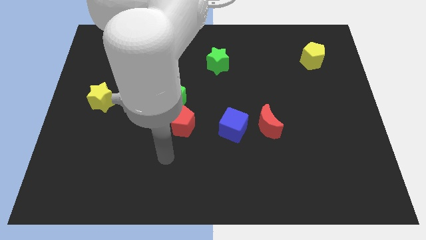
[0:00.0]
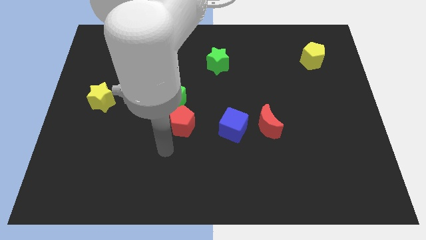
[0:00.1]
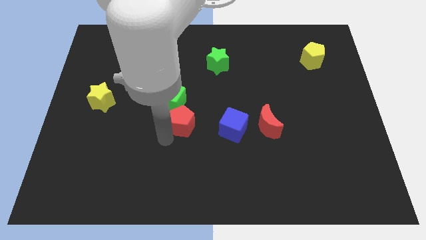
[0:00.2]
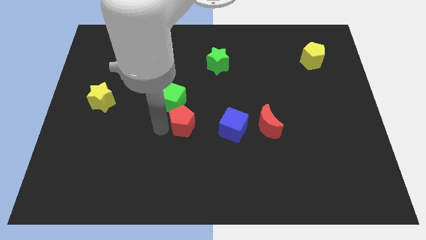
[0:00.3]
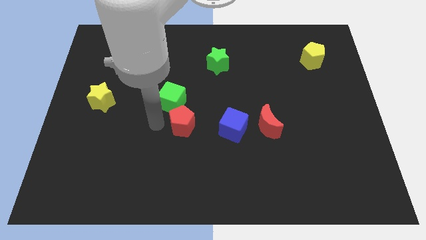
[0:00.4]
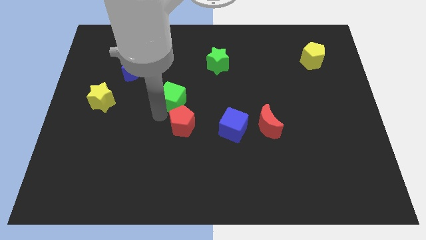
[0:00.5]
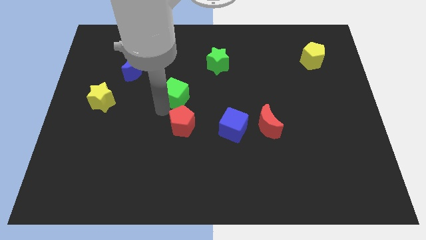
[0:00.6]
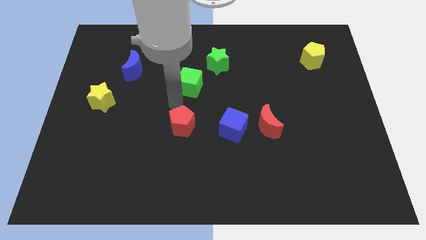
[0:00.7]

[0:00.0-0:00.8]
move the red pentagon away from the green cube

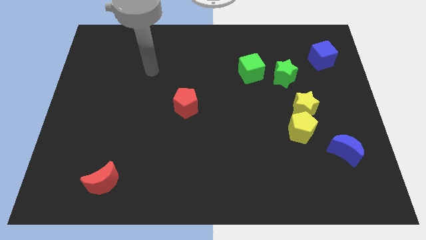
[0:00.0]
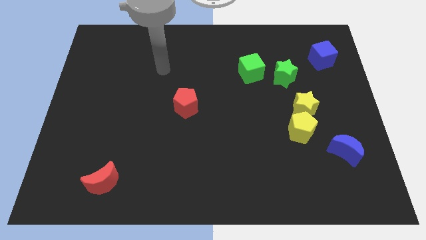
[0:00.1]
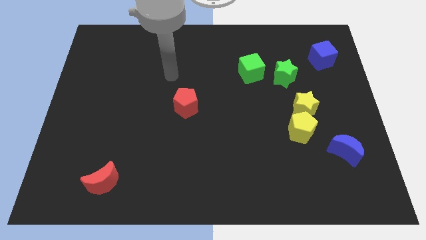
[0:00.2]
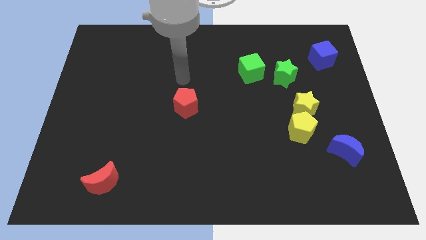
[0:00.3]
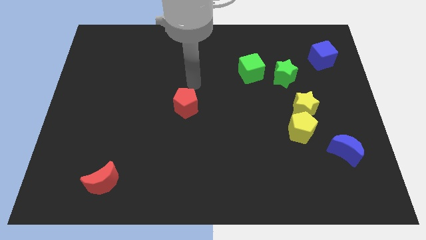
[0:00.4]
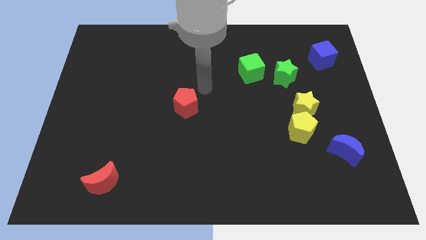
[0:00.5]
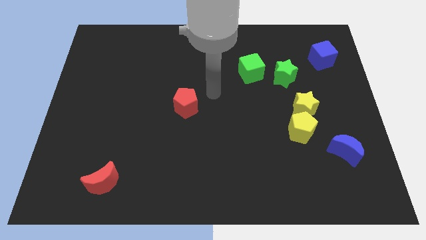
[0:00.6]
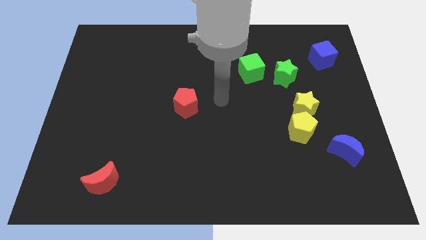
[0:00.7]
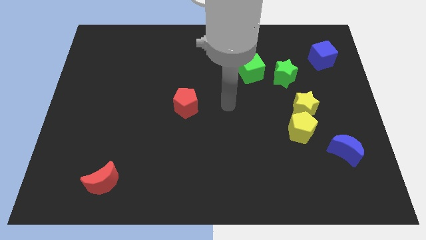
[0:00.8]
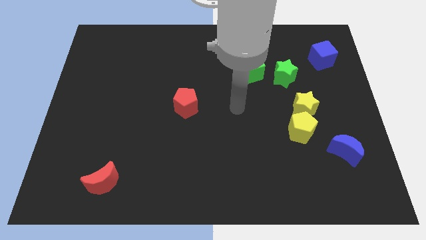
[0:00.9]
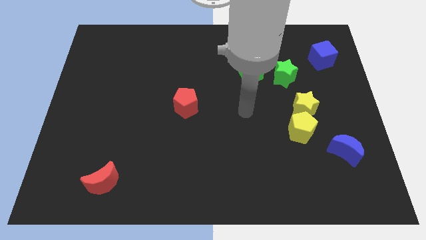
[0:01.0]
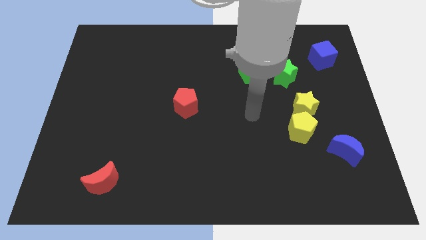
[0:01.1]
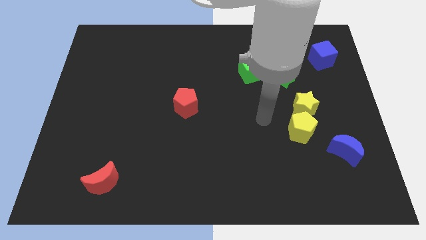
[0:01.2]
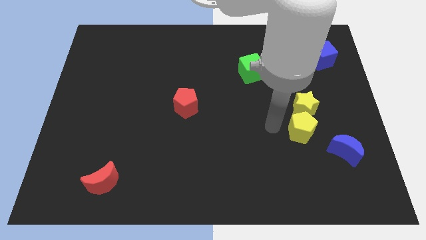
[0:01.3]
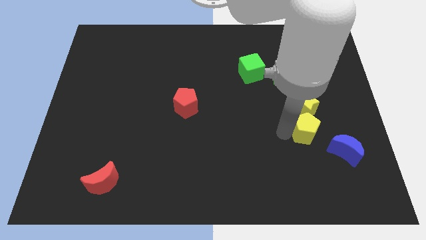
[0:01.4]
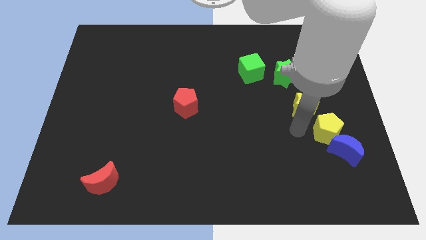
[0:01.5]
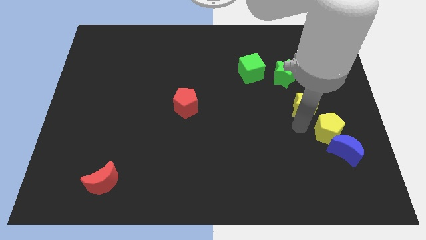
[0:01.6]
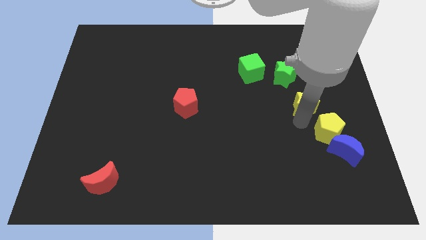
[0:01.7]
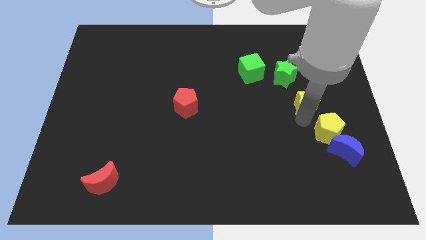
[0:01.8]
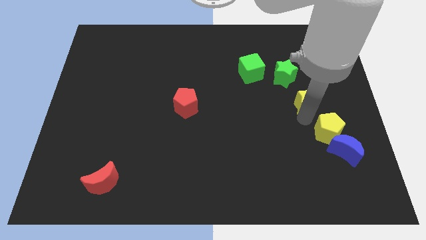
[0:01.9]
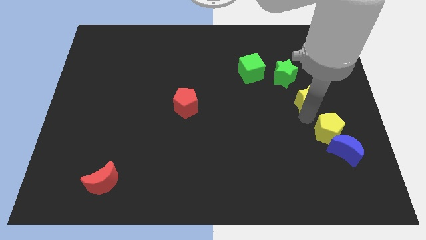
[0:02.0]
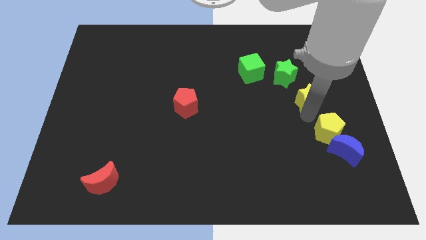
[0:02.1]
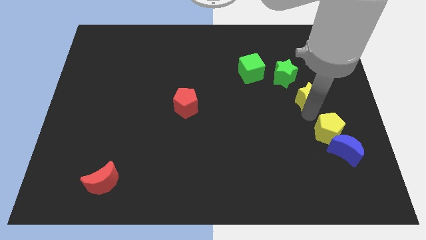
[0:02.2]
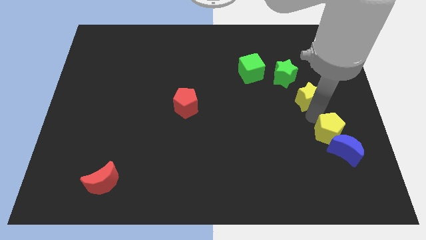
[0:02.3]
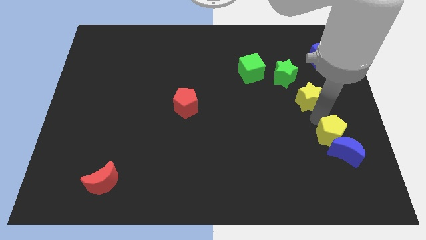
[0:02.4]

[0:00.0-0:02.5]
separate the yellow star from the yellow pentagon

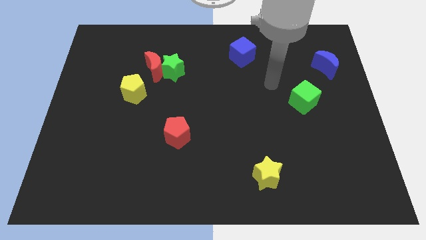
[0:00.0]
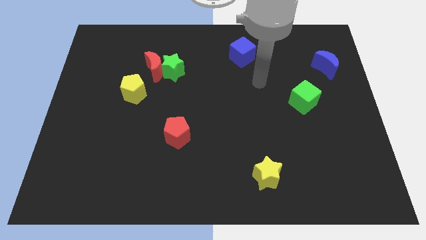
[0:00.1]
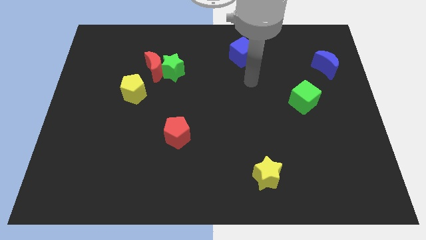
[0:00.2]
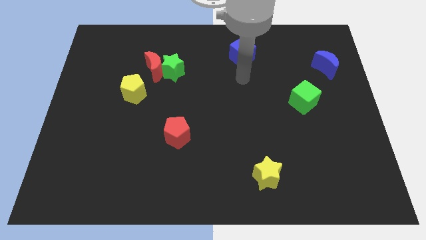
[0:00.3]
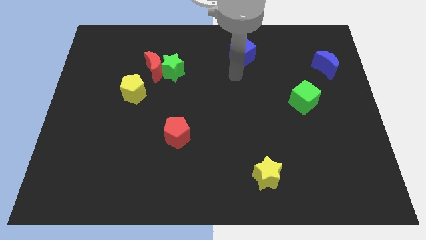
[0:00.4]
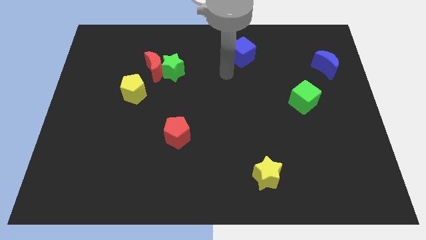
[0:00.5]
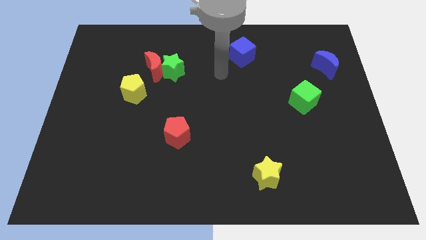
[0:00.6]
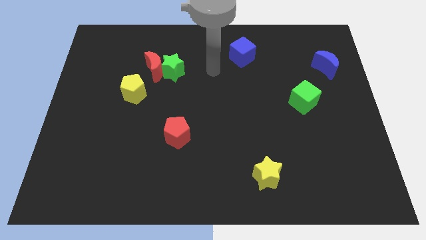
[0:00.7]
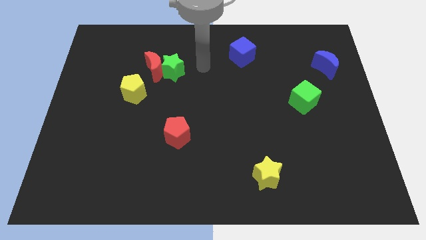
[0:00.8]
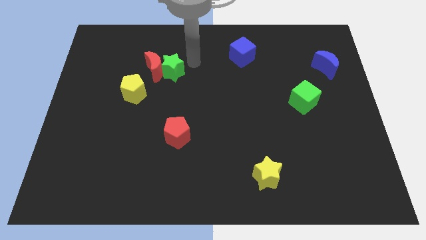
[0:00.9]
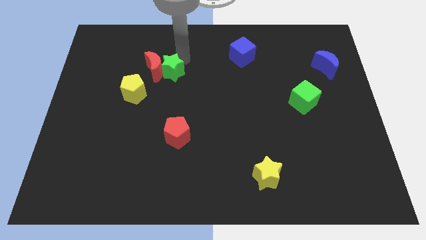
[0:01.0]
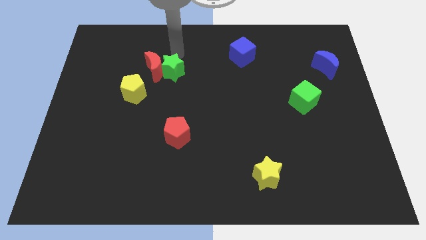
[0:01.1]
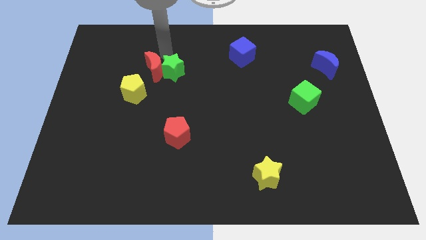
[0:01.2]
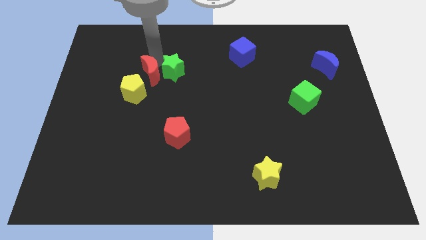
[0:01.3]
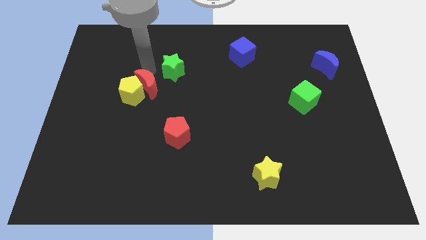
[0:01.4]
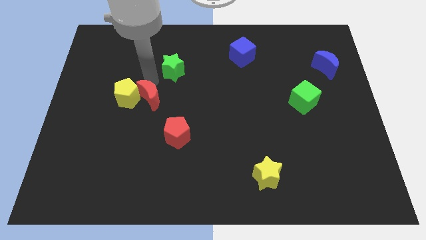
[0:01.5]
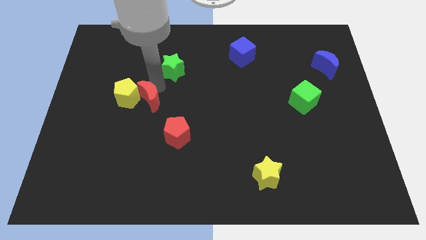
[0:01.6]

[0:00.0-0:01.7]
separate the green star from the red moon

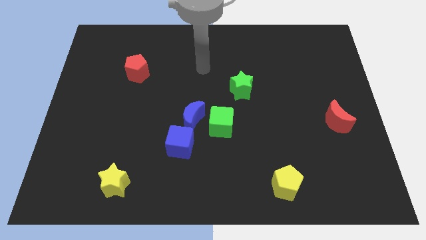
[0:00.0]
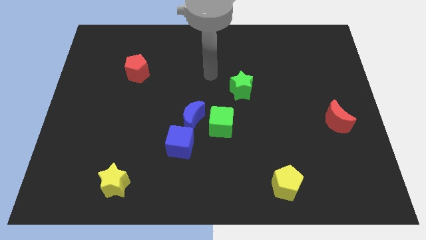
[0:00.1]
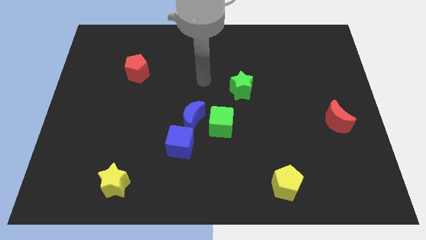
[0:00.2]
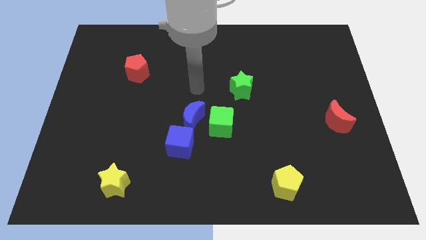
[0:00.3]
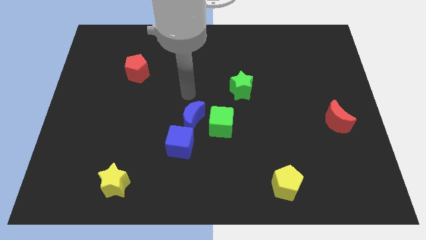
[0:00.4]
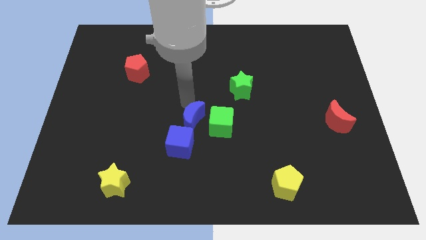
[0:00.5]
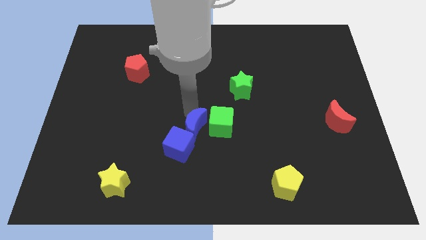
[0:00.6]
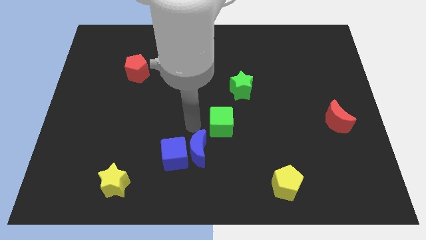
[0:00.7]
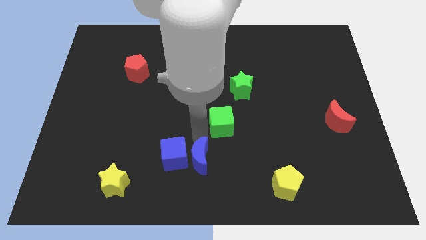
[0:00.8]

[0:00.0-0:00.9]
move the green cube away from the blue moon

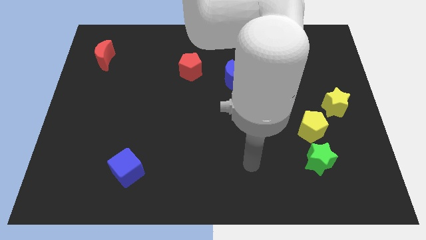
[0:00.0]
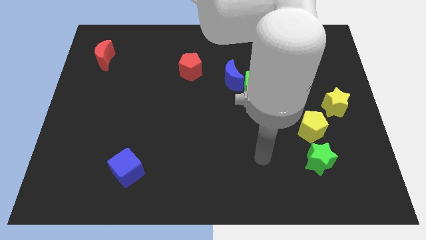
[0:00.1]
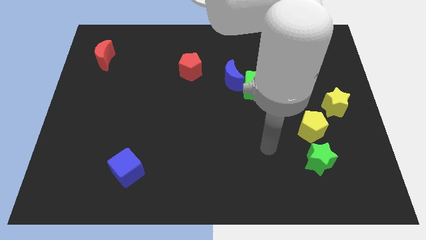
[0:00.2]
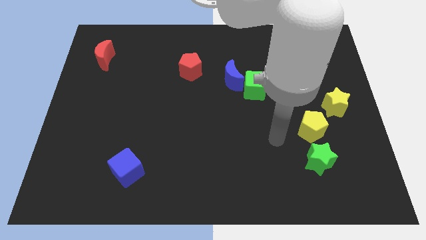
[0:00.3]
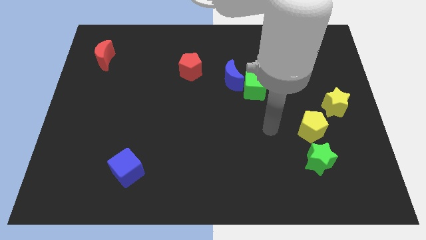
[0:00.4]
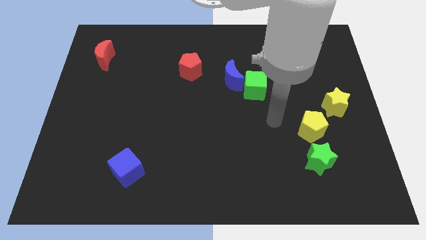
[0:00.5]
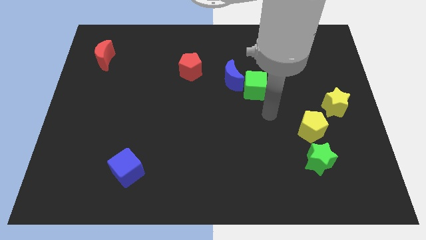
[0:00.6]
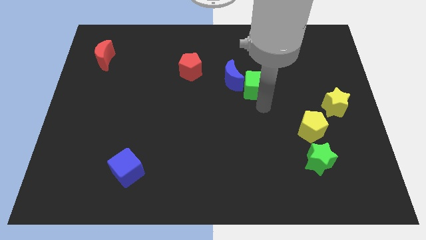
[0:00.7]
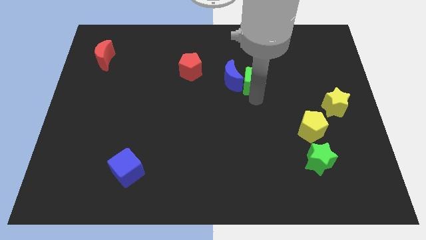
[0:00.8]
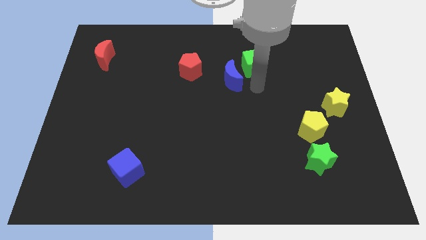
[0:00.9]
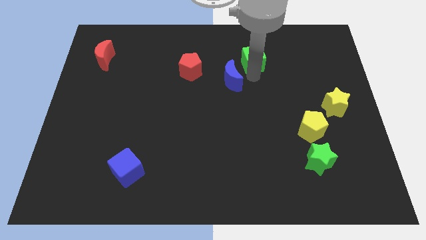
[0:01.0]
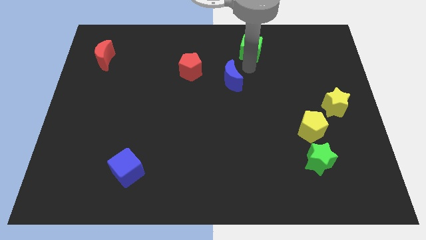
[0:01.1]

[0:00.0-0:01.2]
separate the blue moon from the green cube

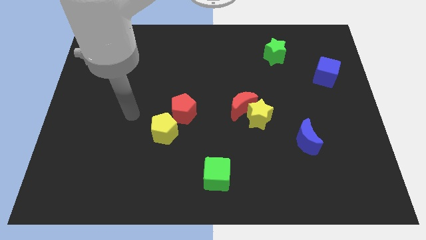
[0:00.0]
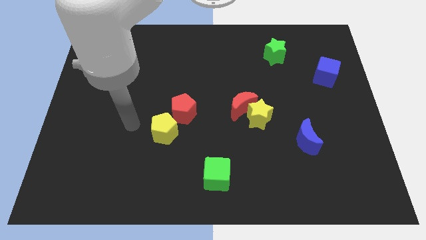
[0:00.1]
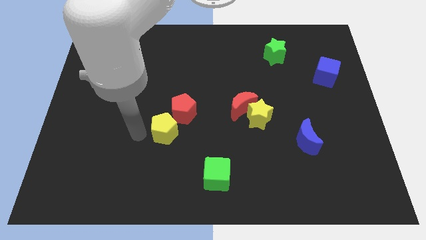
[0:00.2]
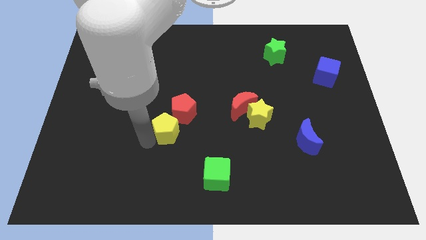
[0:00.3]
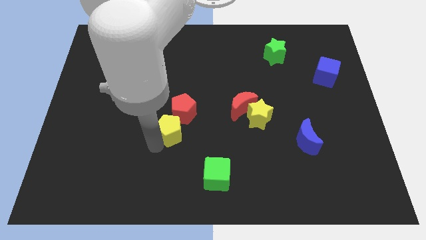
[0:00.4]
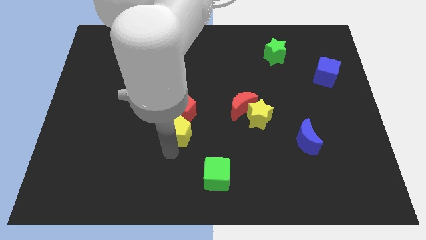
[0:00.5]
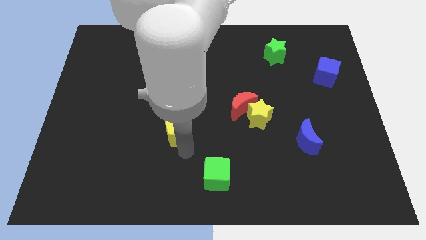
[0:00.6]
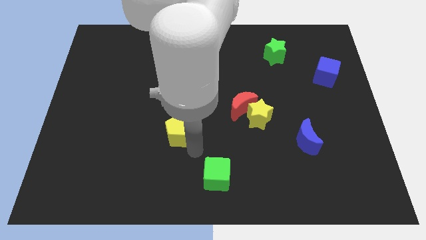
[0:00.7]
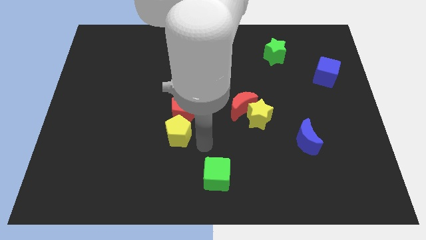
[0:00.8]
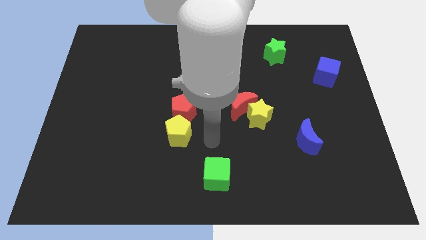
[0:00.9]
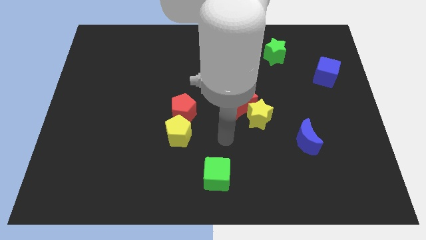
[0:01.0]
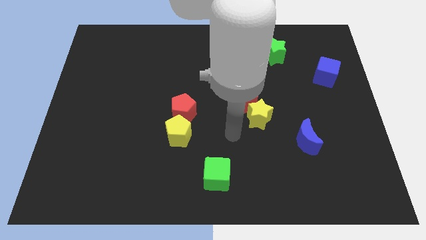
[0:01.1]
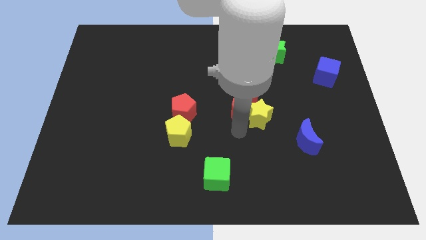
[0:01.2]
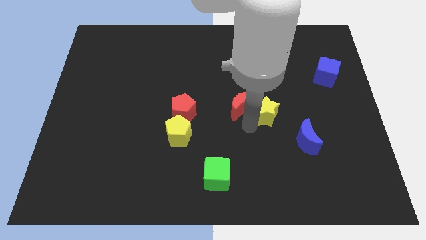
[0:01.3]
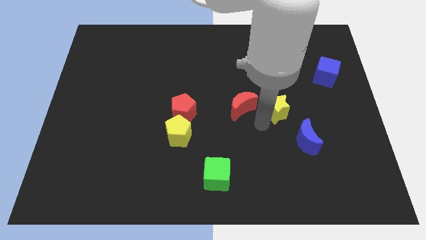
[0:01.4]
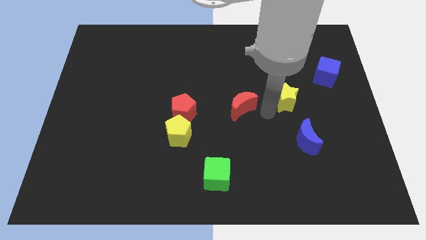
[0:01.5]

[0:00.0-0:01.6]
move the red moon away from the yellow star

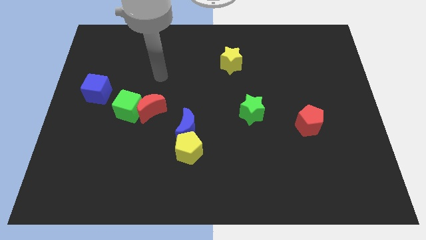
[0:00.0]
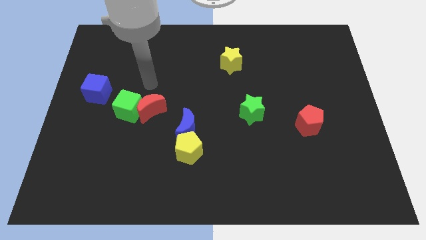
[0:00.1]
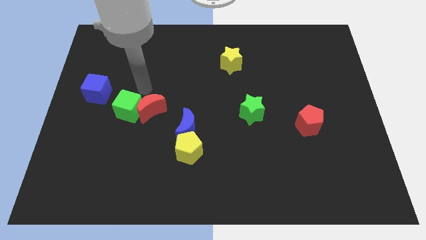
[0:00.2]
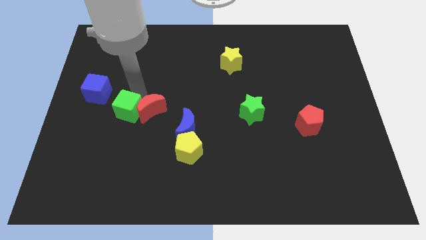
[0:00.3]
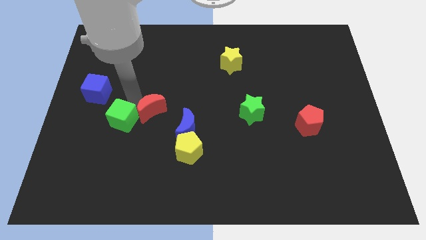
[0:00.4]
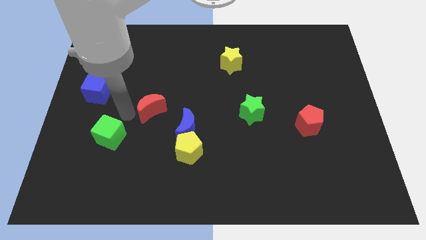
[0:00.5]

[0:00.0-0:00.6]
pull the red moon apart from the green cube

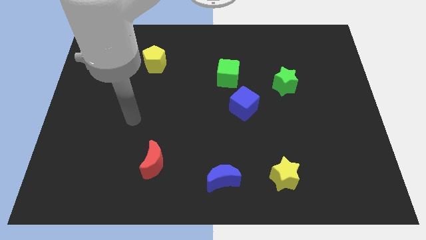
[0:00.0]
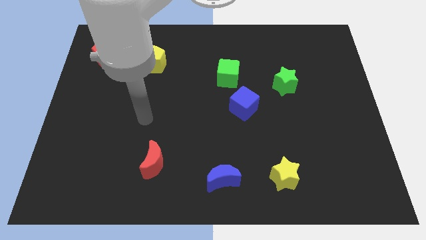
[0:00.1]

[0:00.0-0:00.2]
pull the blue cube apart from the green cube
